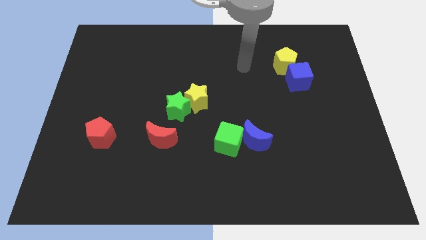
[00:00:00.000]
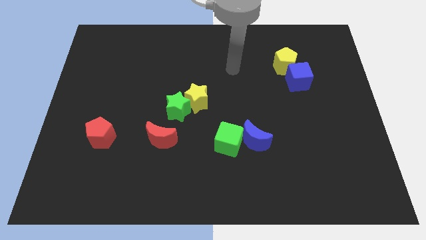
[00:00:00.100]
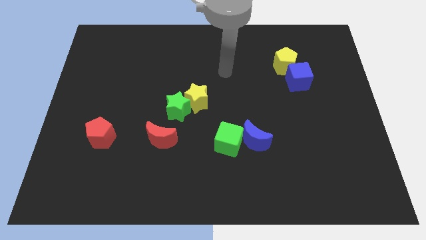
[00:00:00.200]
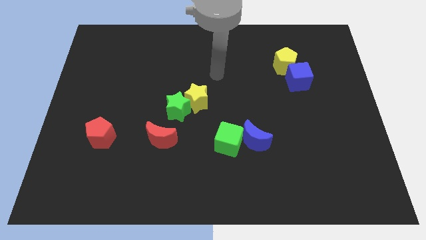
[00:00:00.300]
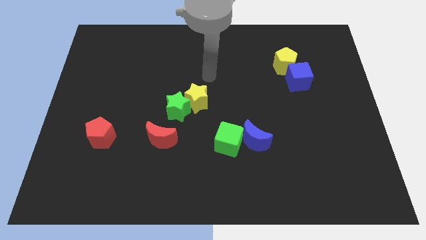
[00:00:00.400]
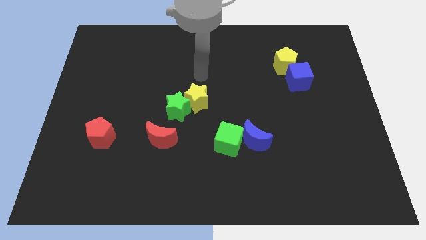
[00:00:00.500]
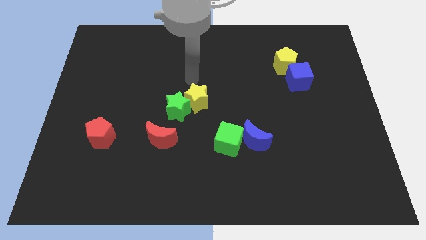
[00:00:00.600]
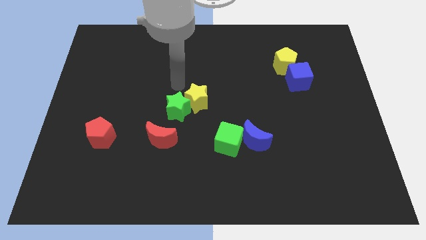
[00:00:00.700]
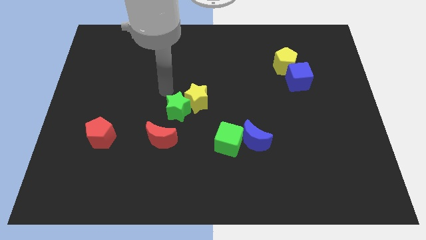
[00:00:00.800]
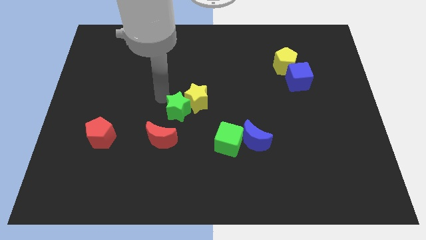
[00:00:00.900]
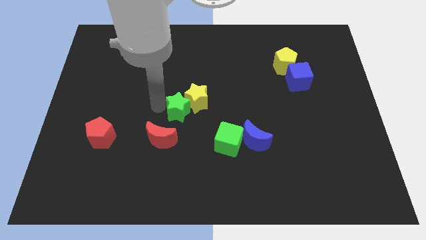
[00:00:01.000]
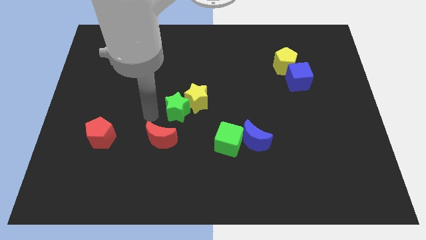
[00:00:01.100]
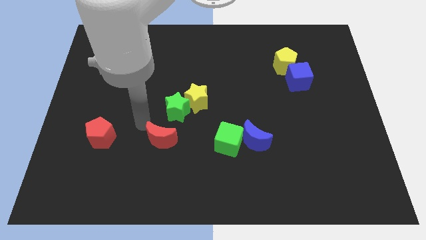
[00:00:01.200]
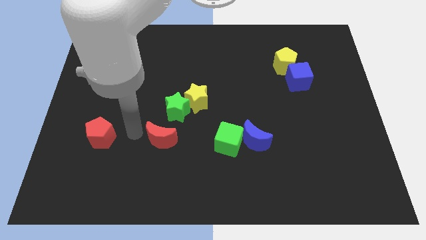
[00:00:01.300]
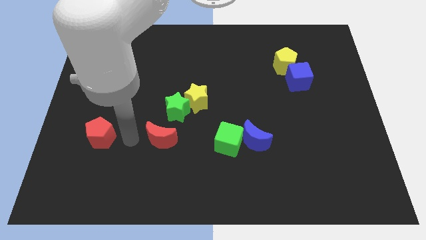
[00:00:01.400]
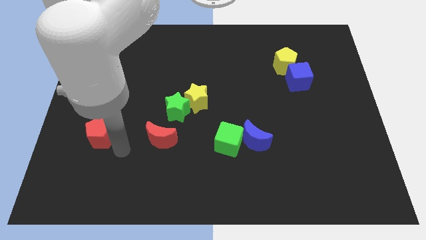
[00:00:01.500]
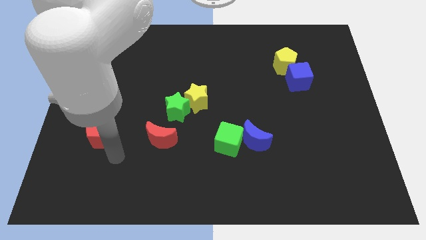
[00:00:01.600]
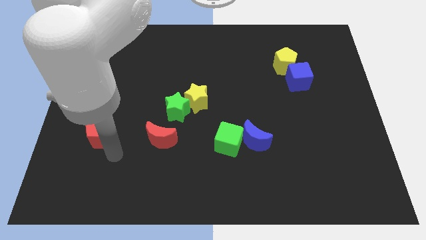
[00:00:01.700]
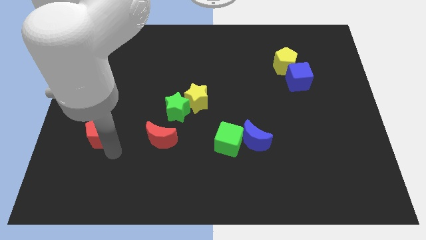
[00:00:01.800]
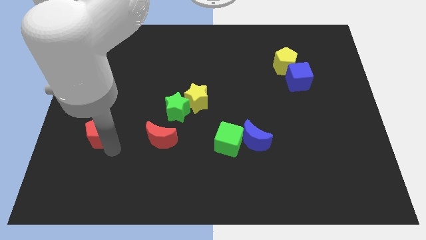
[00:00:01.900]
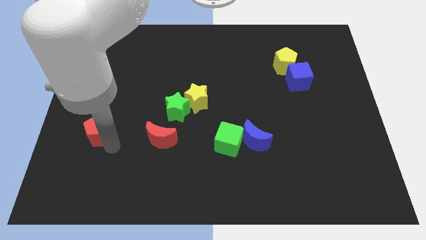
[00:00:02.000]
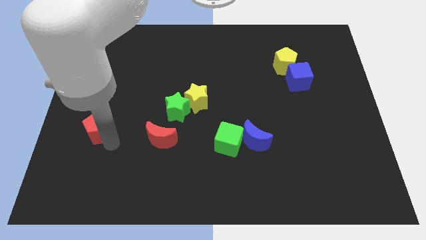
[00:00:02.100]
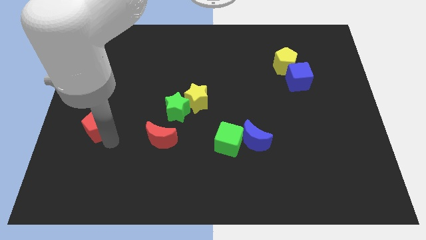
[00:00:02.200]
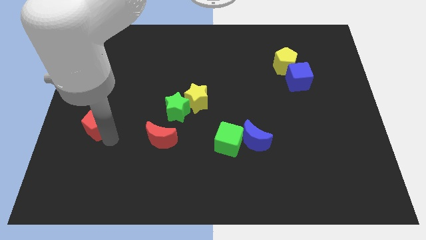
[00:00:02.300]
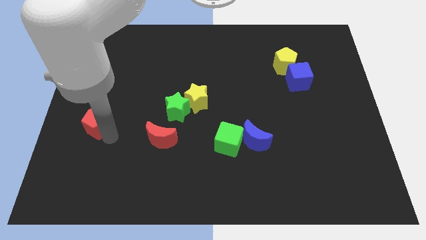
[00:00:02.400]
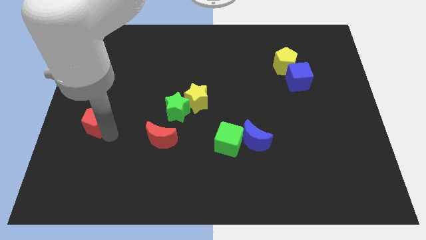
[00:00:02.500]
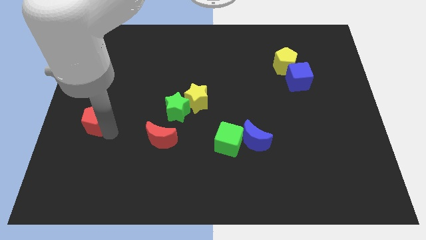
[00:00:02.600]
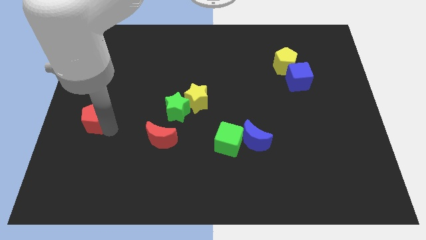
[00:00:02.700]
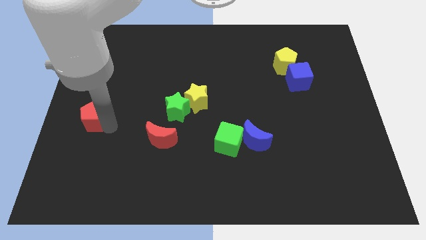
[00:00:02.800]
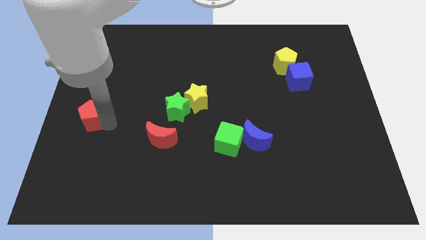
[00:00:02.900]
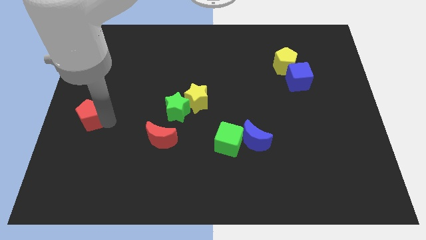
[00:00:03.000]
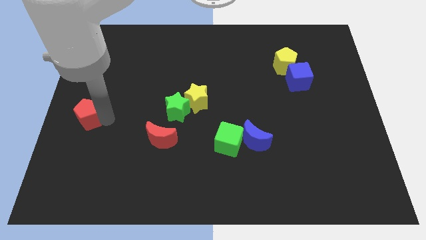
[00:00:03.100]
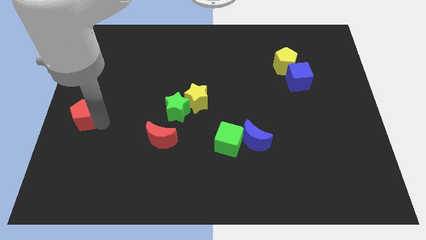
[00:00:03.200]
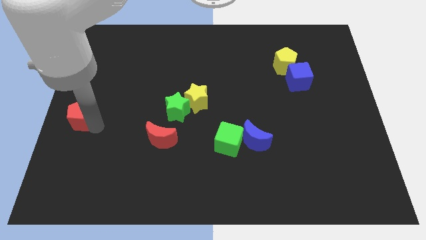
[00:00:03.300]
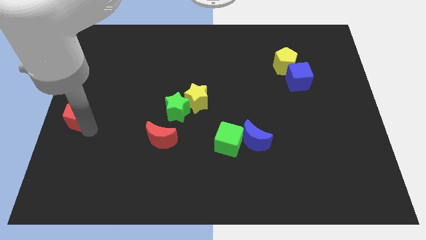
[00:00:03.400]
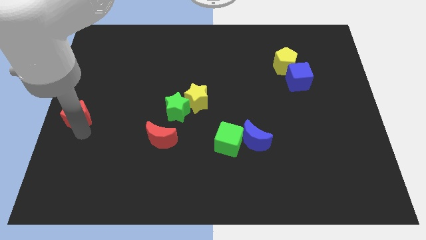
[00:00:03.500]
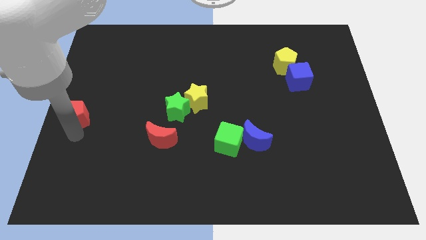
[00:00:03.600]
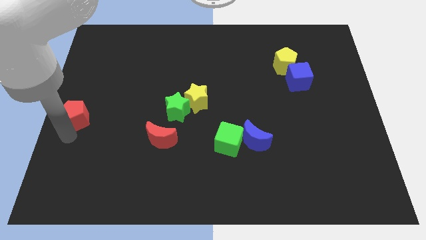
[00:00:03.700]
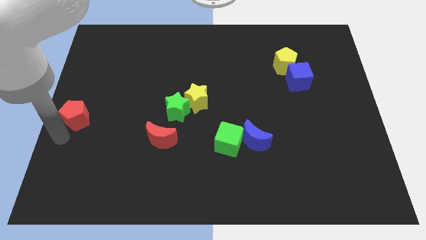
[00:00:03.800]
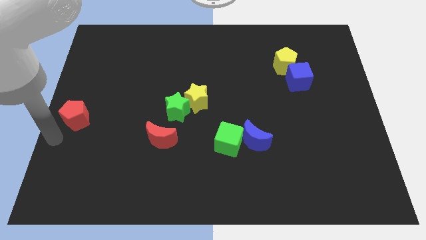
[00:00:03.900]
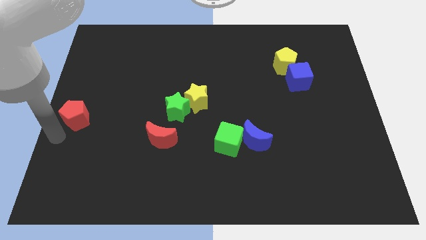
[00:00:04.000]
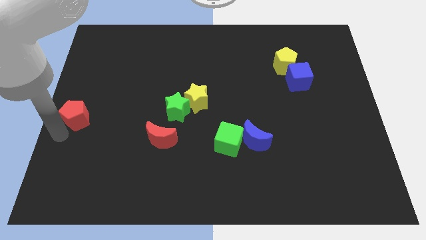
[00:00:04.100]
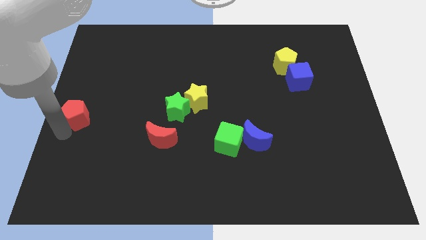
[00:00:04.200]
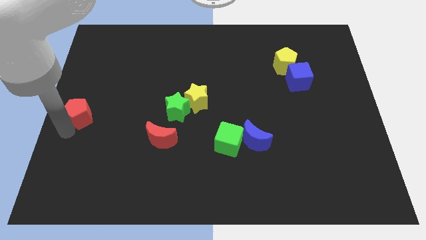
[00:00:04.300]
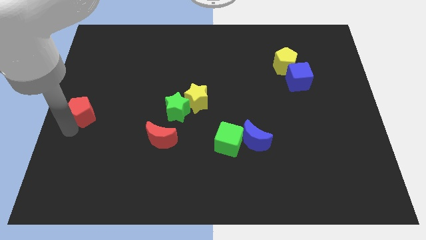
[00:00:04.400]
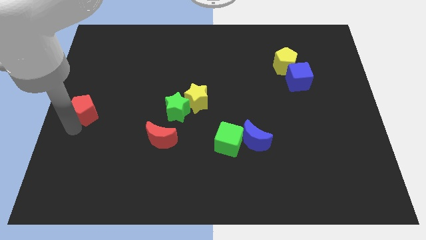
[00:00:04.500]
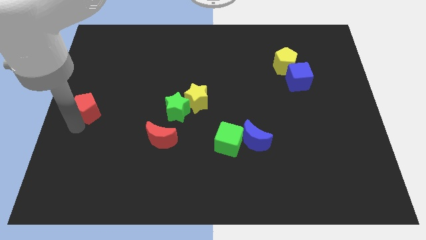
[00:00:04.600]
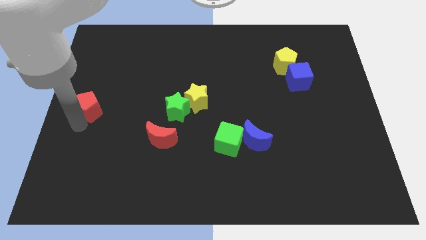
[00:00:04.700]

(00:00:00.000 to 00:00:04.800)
push the red pentagon a bit up

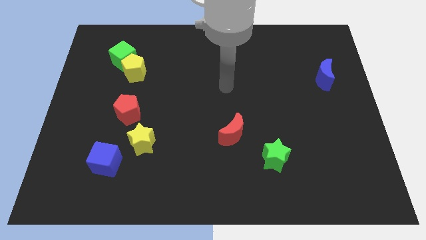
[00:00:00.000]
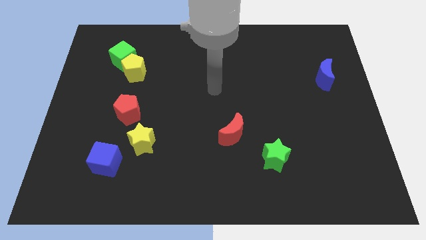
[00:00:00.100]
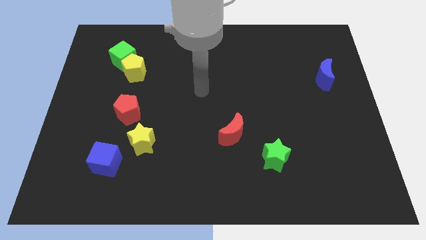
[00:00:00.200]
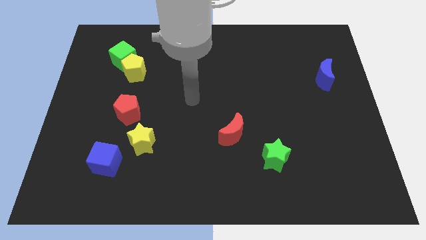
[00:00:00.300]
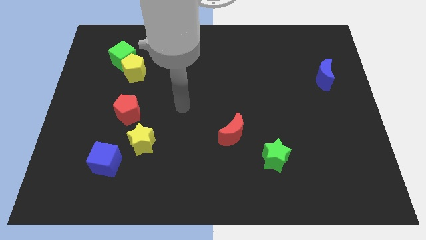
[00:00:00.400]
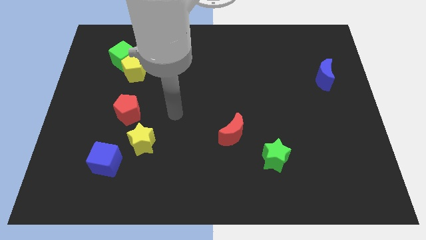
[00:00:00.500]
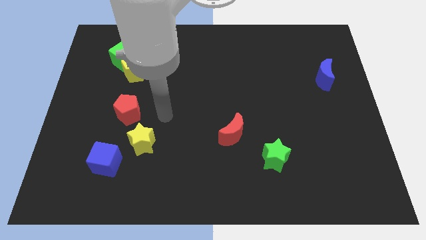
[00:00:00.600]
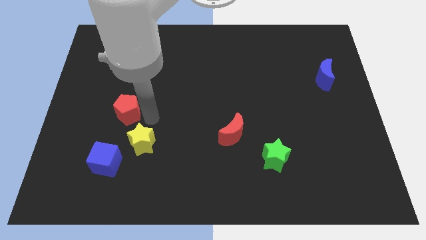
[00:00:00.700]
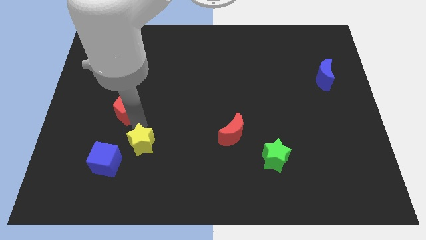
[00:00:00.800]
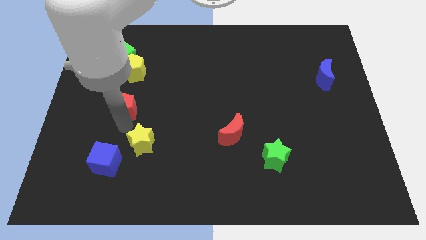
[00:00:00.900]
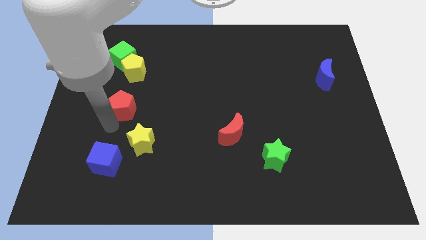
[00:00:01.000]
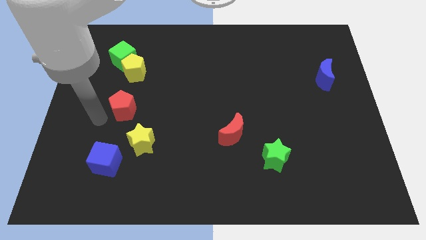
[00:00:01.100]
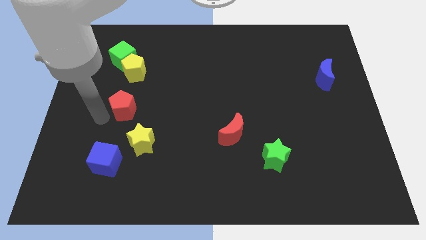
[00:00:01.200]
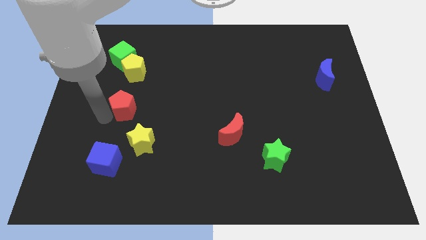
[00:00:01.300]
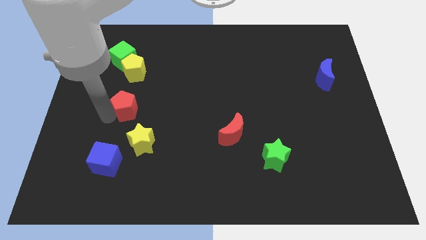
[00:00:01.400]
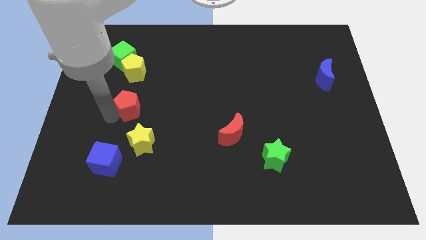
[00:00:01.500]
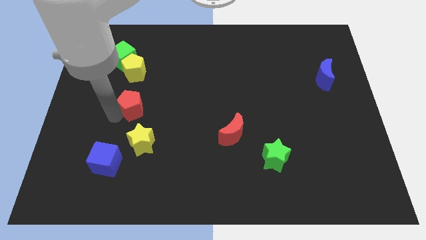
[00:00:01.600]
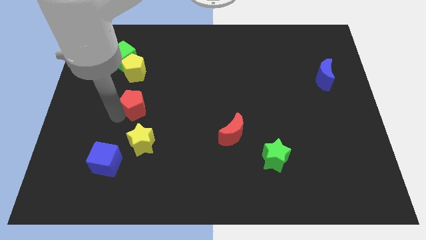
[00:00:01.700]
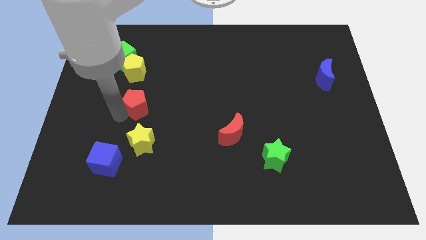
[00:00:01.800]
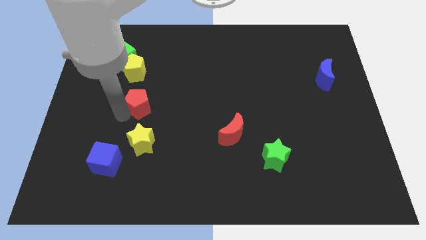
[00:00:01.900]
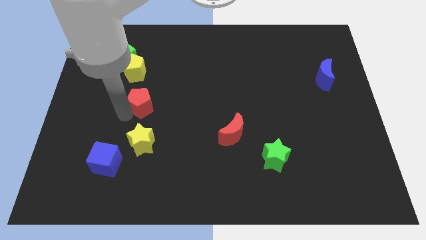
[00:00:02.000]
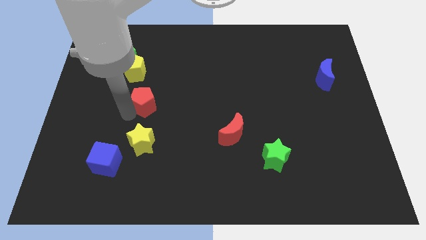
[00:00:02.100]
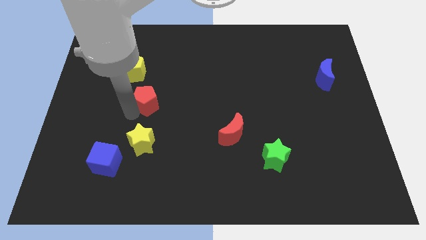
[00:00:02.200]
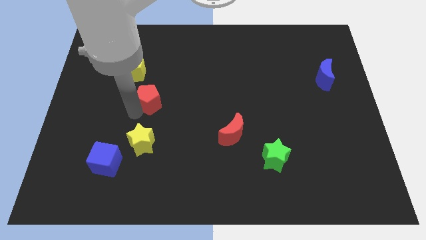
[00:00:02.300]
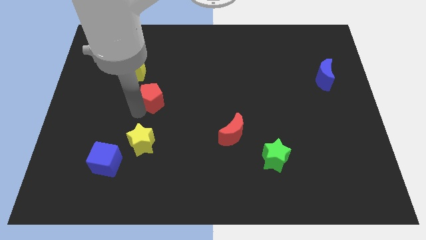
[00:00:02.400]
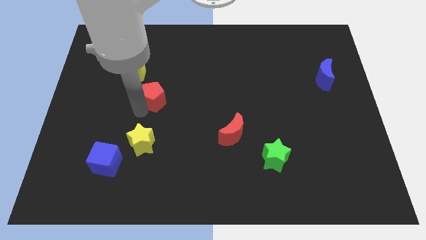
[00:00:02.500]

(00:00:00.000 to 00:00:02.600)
slightly push the red pentagon upwards and then right

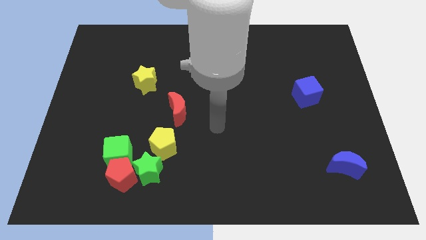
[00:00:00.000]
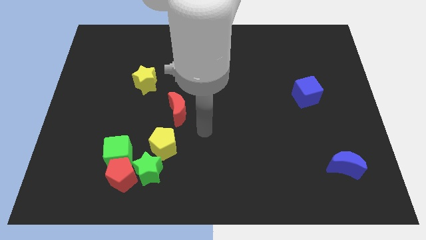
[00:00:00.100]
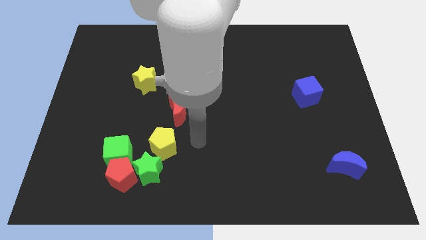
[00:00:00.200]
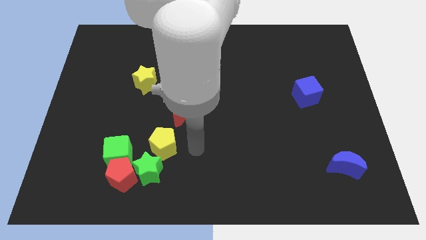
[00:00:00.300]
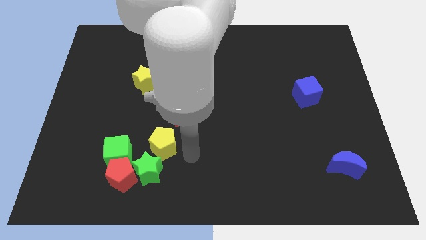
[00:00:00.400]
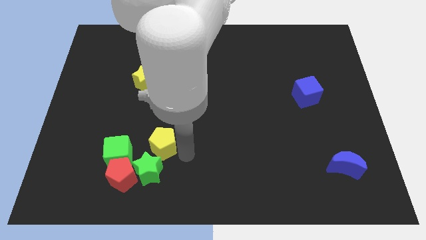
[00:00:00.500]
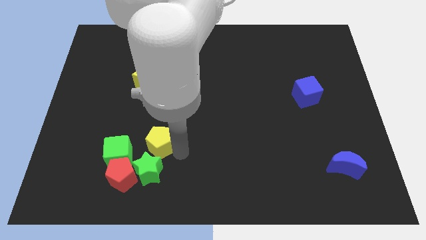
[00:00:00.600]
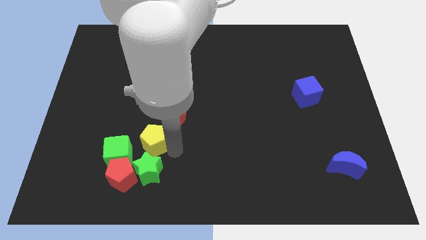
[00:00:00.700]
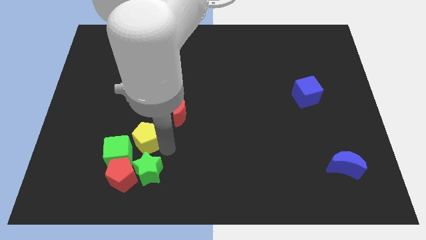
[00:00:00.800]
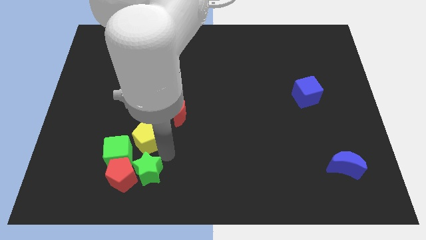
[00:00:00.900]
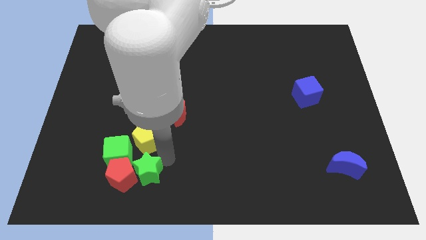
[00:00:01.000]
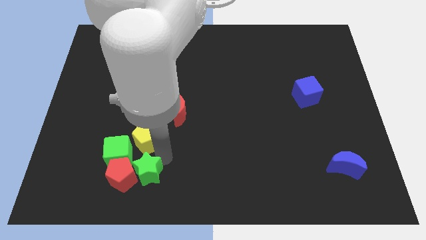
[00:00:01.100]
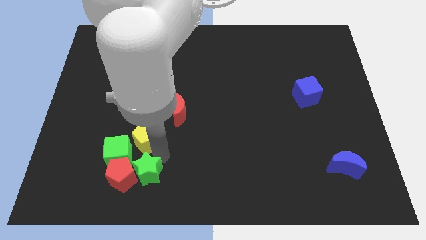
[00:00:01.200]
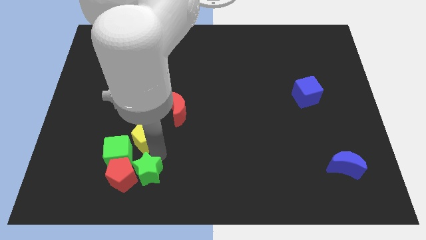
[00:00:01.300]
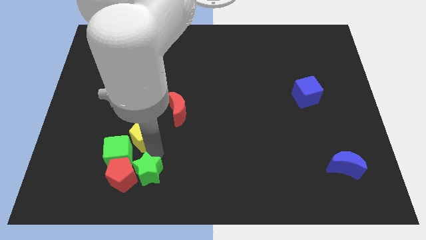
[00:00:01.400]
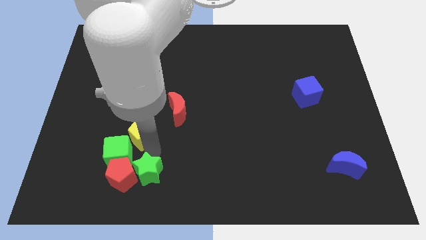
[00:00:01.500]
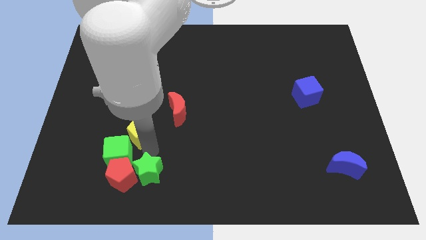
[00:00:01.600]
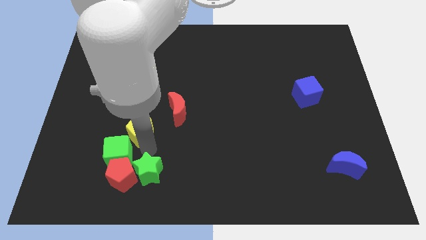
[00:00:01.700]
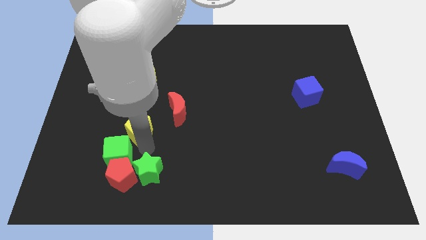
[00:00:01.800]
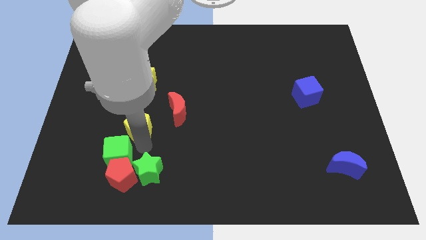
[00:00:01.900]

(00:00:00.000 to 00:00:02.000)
slide the yellow pentagon upwards and then to the left a little bit
